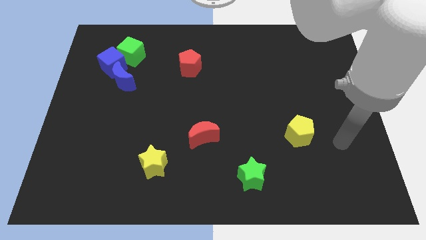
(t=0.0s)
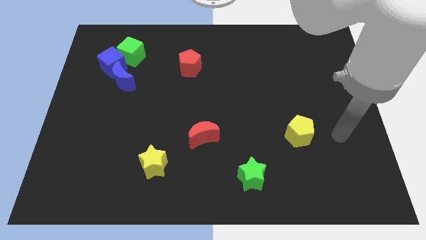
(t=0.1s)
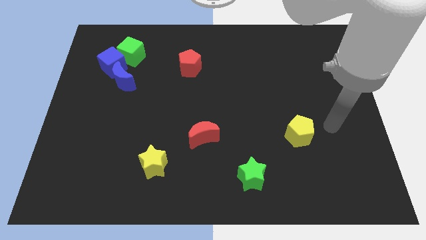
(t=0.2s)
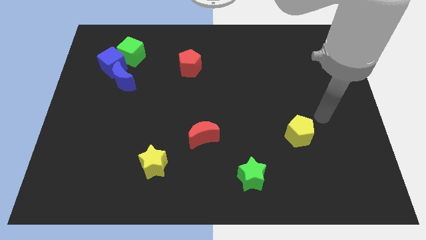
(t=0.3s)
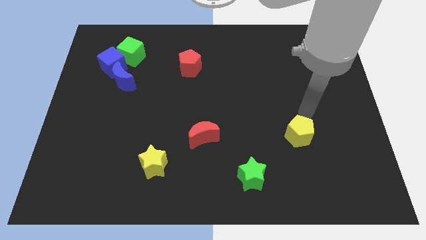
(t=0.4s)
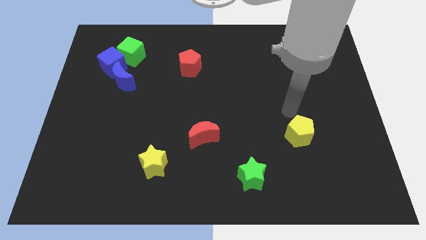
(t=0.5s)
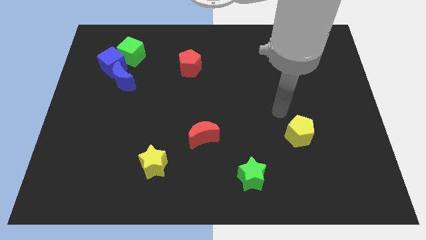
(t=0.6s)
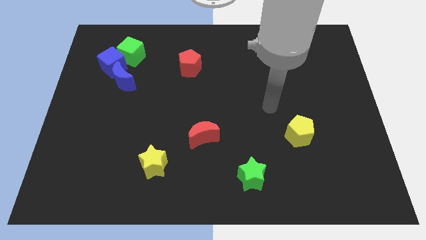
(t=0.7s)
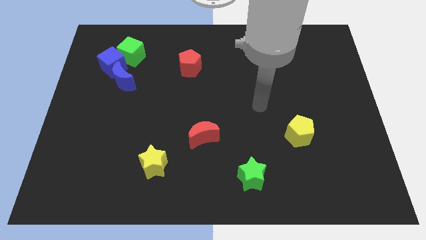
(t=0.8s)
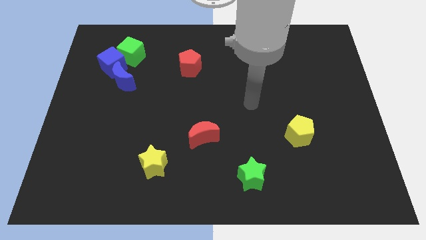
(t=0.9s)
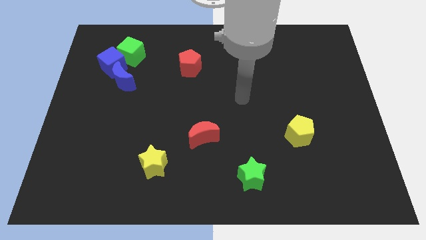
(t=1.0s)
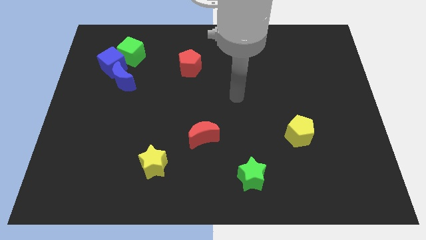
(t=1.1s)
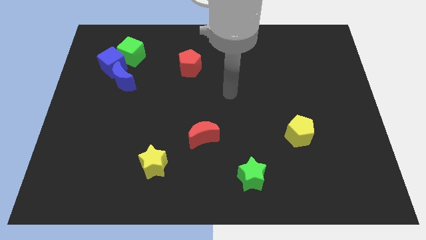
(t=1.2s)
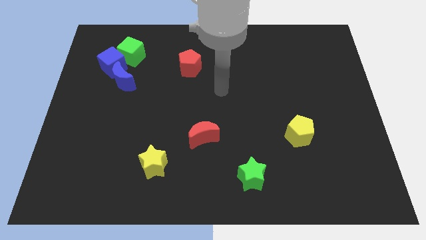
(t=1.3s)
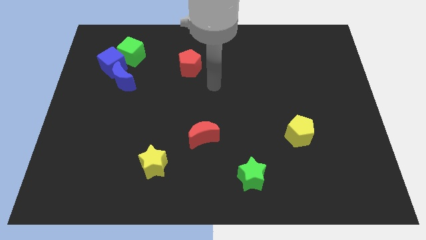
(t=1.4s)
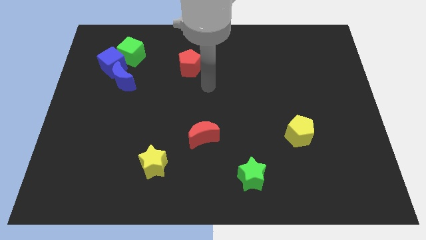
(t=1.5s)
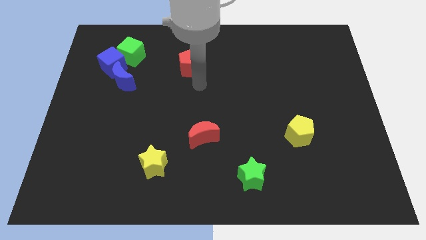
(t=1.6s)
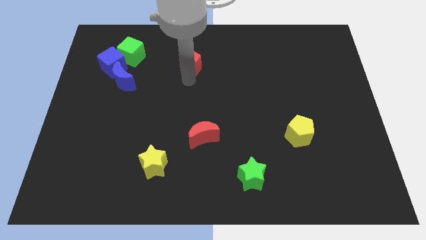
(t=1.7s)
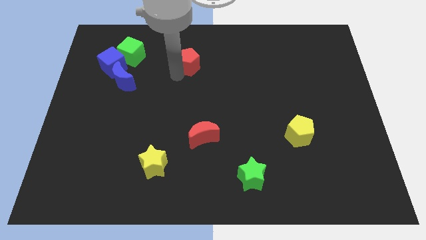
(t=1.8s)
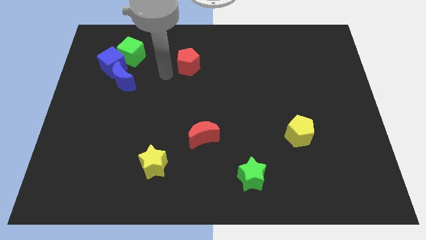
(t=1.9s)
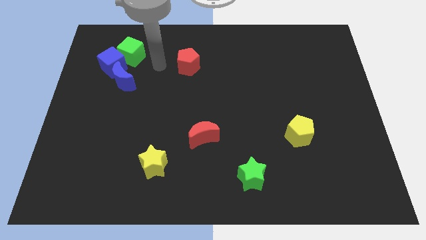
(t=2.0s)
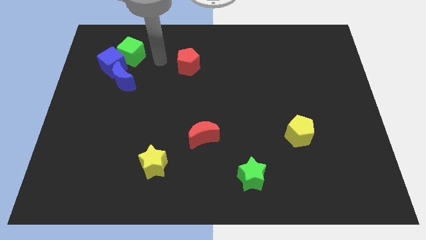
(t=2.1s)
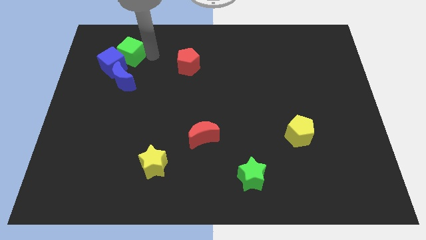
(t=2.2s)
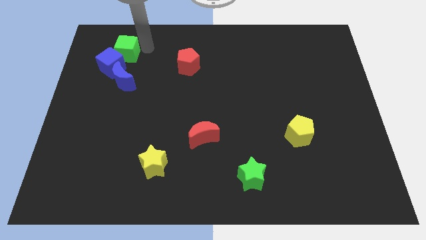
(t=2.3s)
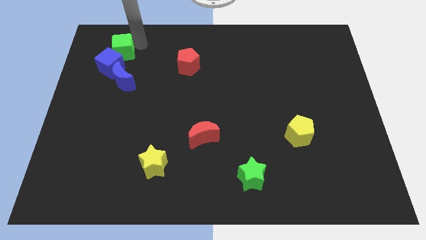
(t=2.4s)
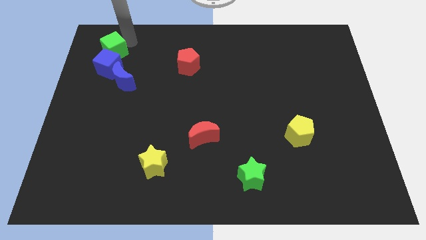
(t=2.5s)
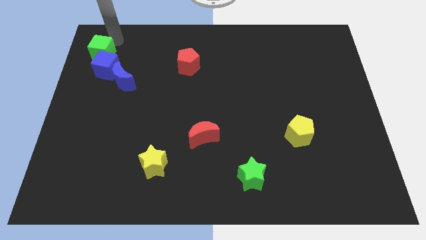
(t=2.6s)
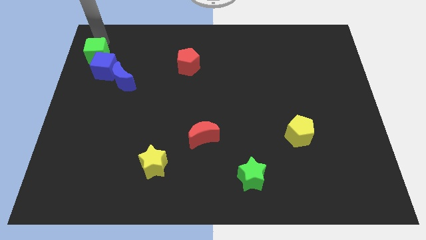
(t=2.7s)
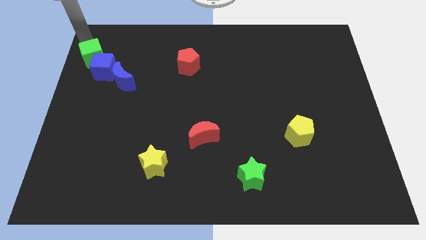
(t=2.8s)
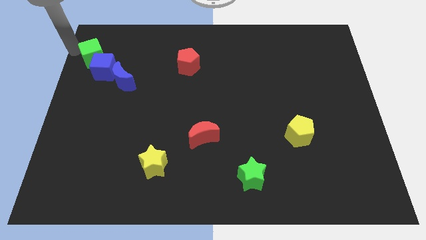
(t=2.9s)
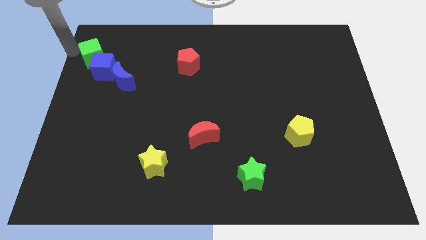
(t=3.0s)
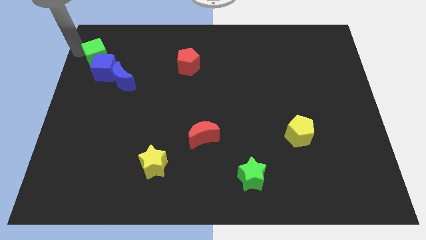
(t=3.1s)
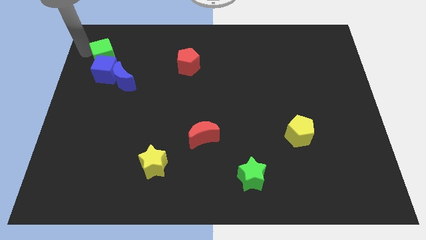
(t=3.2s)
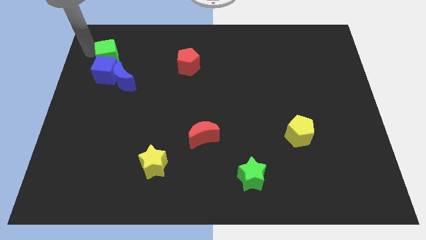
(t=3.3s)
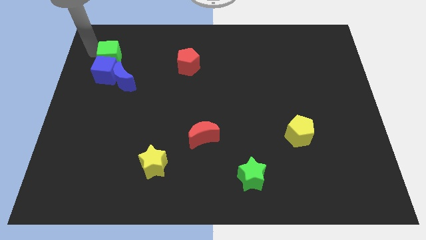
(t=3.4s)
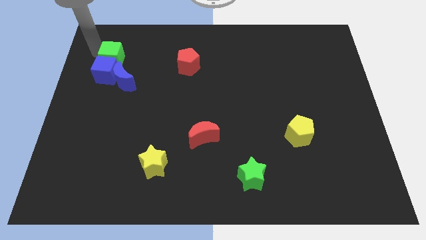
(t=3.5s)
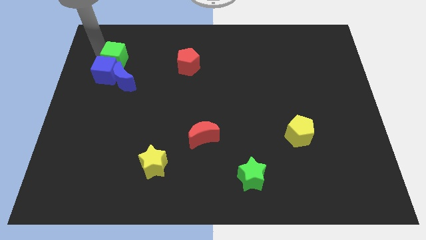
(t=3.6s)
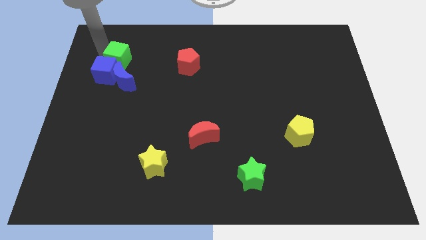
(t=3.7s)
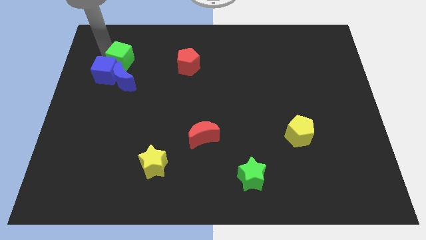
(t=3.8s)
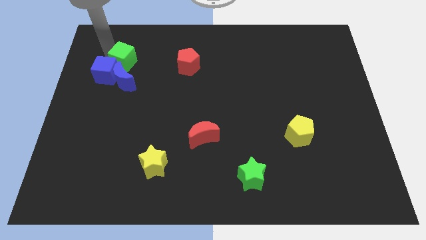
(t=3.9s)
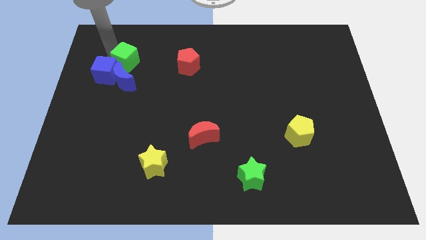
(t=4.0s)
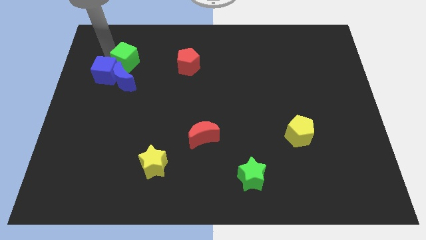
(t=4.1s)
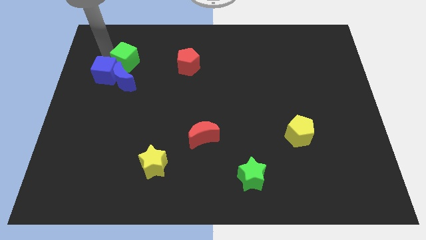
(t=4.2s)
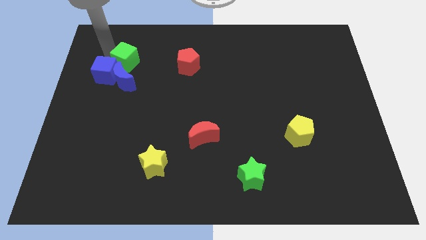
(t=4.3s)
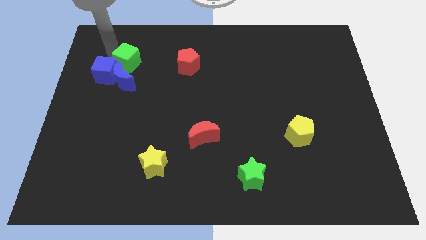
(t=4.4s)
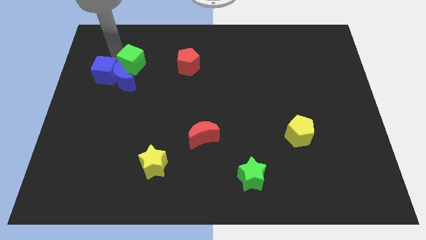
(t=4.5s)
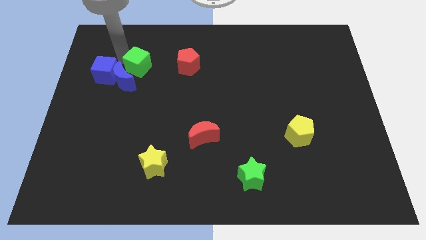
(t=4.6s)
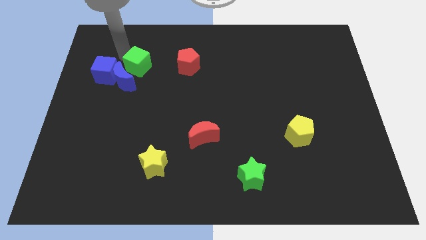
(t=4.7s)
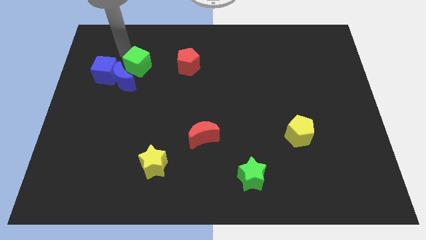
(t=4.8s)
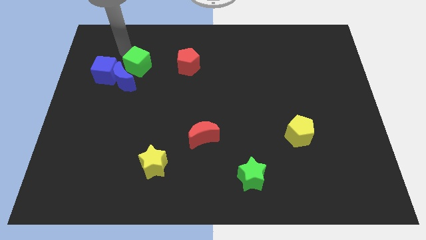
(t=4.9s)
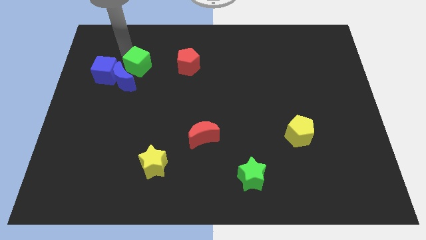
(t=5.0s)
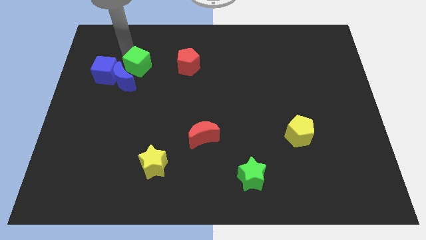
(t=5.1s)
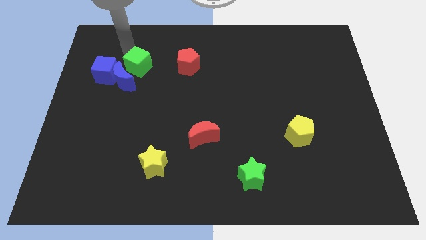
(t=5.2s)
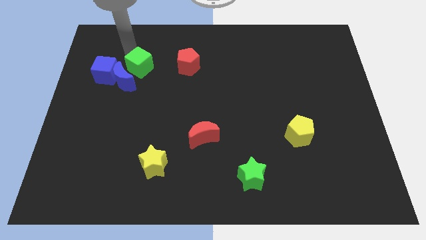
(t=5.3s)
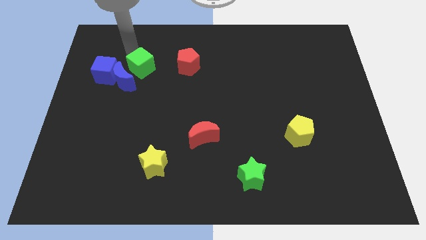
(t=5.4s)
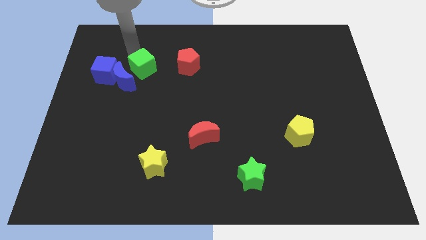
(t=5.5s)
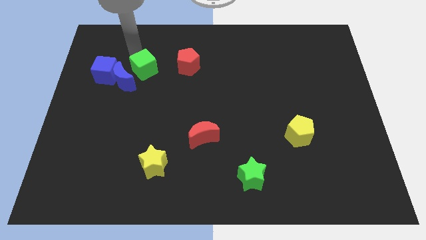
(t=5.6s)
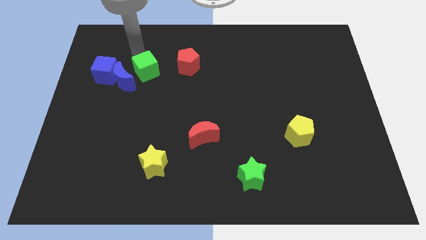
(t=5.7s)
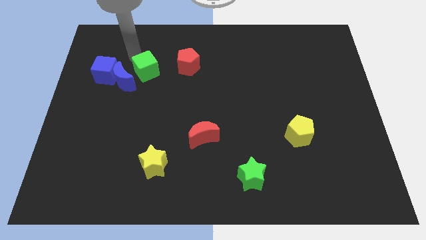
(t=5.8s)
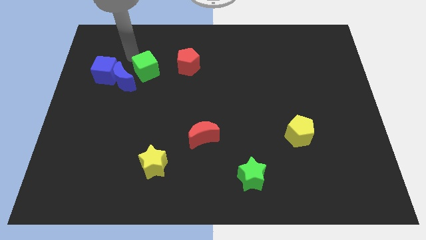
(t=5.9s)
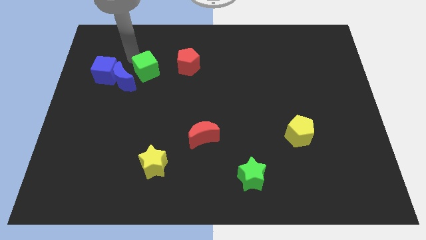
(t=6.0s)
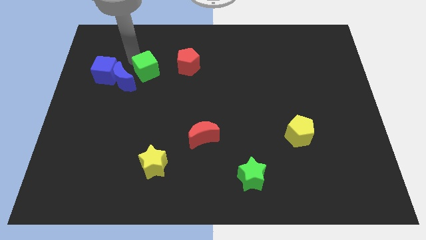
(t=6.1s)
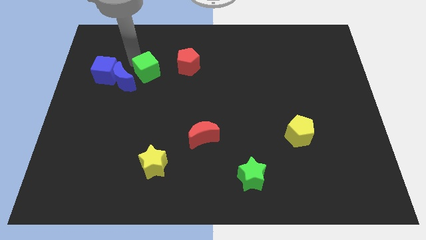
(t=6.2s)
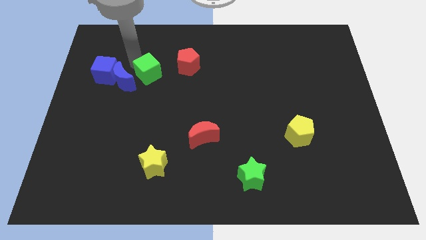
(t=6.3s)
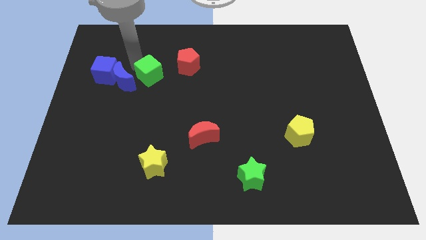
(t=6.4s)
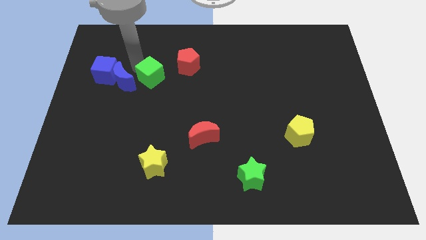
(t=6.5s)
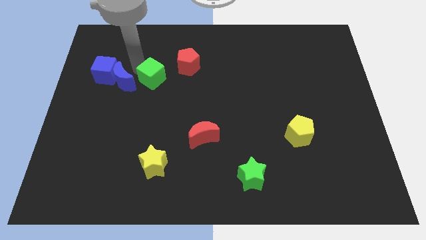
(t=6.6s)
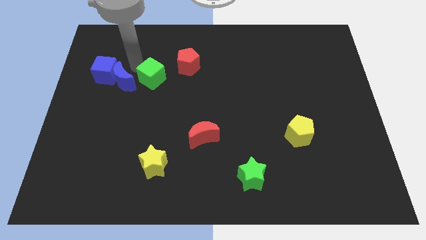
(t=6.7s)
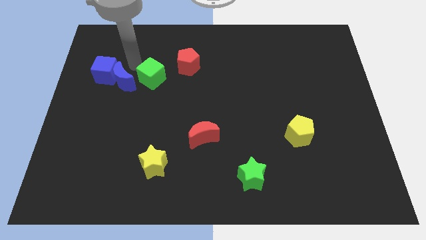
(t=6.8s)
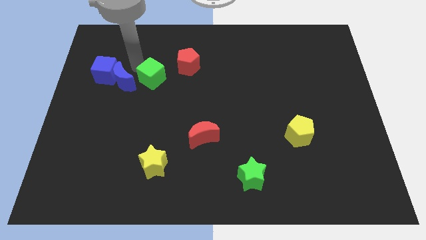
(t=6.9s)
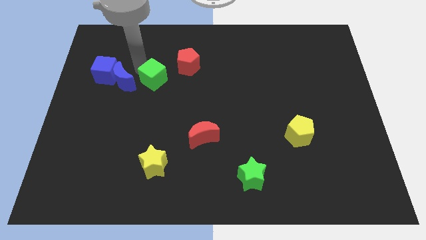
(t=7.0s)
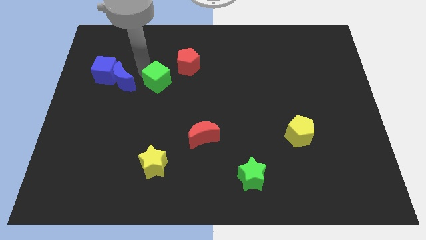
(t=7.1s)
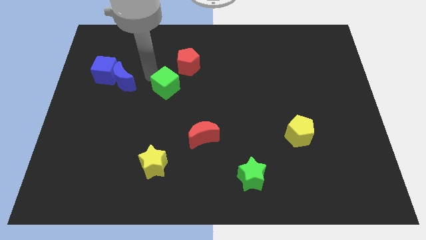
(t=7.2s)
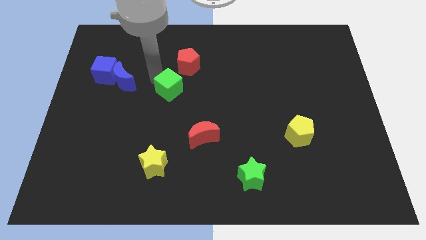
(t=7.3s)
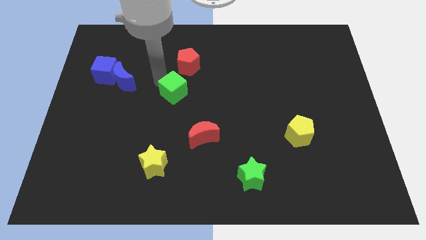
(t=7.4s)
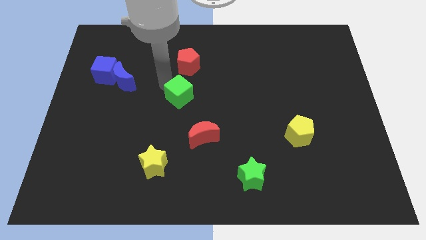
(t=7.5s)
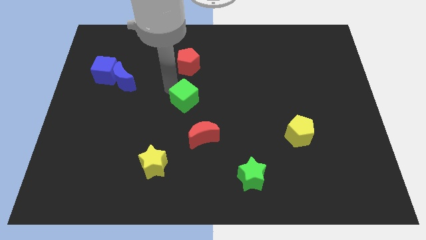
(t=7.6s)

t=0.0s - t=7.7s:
slide the green cube downwards and right

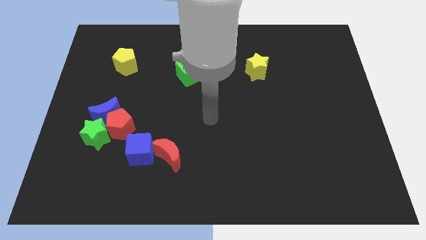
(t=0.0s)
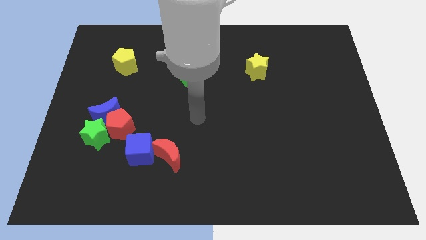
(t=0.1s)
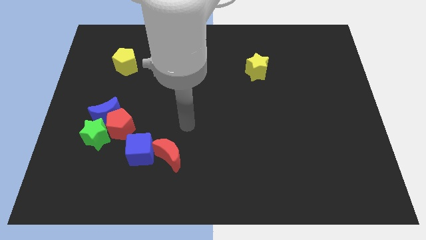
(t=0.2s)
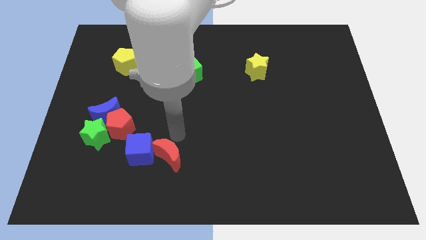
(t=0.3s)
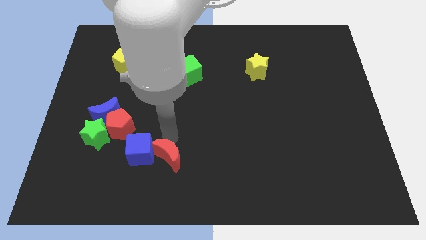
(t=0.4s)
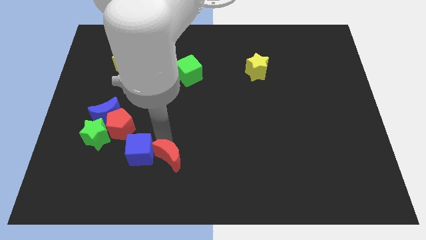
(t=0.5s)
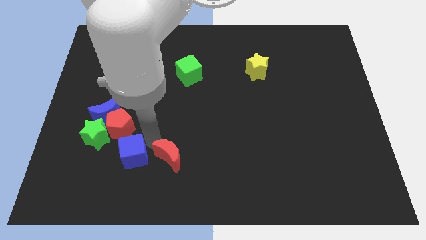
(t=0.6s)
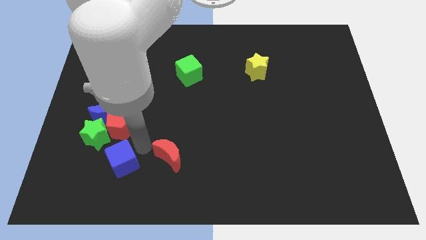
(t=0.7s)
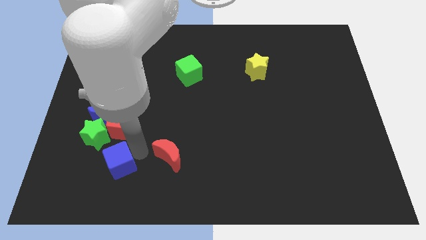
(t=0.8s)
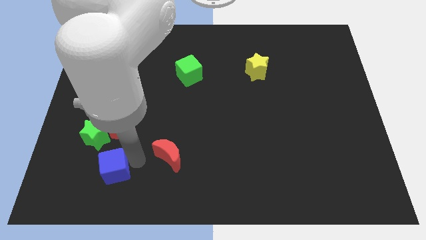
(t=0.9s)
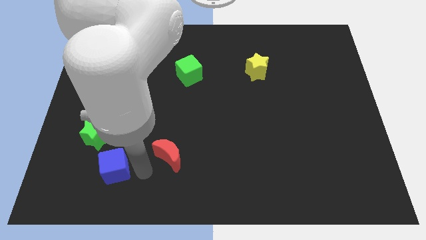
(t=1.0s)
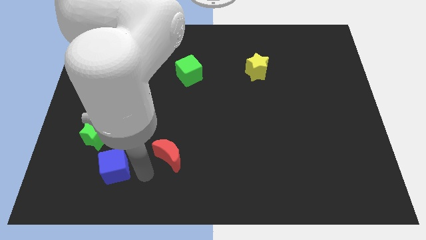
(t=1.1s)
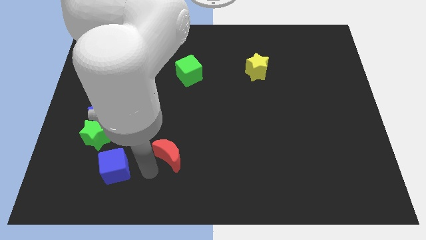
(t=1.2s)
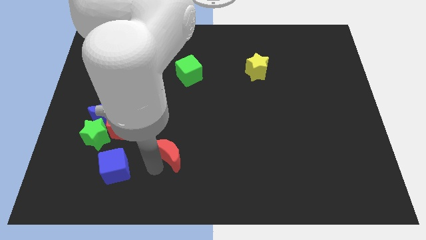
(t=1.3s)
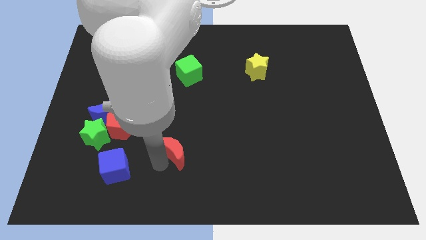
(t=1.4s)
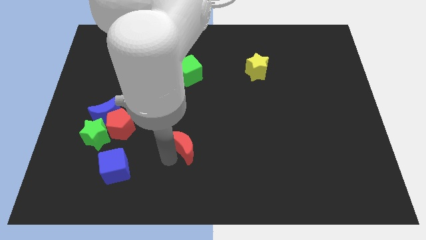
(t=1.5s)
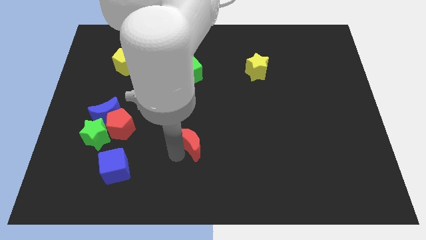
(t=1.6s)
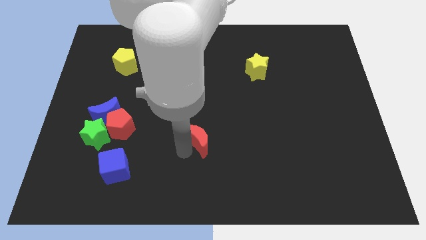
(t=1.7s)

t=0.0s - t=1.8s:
move the red moon a little bit up and right
